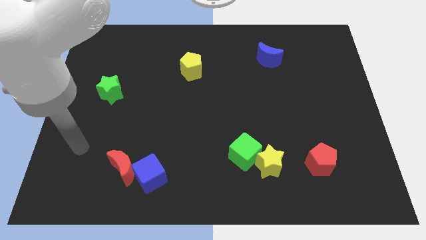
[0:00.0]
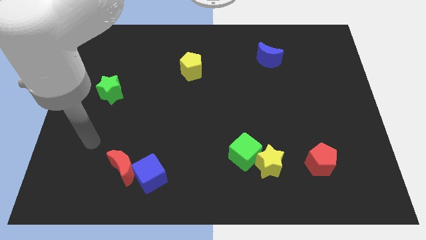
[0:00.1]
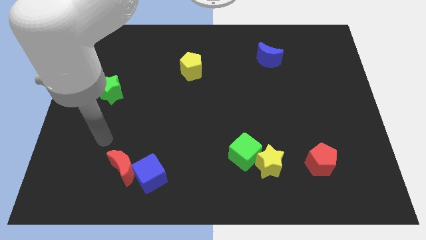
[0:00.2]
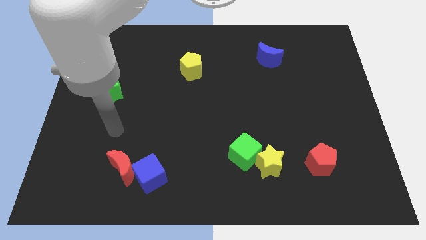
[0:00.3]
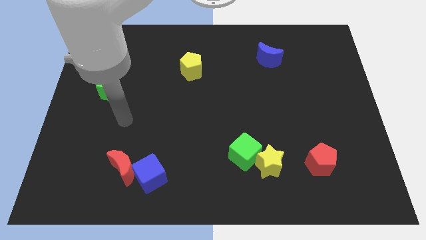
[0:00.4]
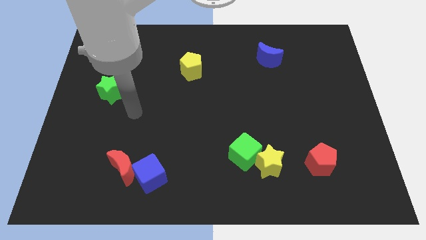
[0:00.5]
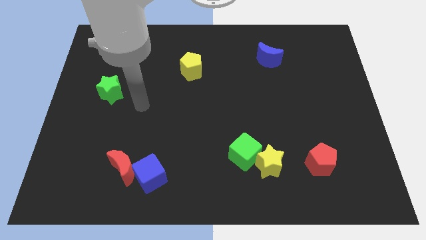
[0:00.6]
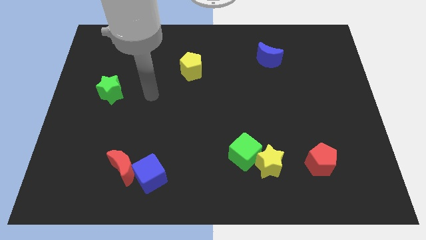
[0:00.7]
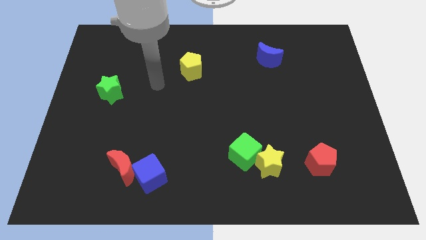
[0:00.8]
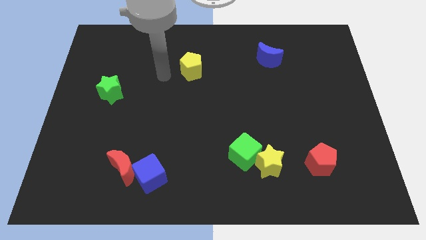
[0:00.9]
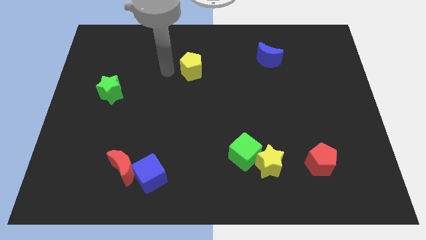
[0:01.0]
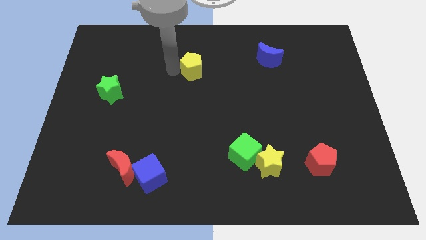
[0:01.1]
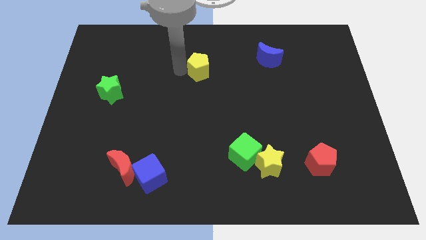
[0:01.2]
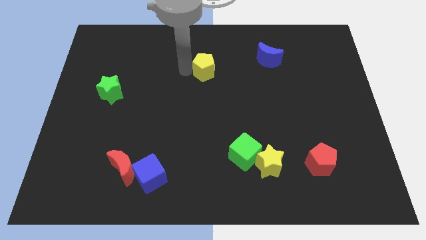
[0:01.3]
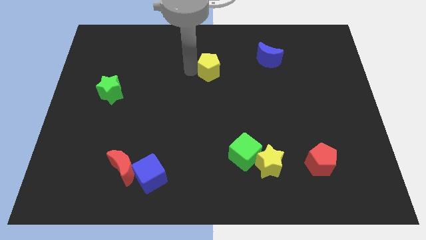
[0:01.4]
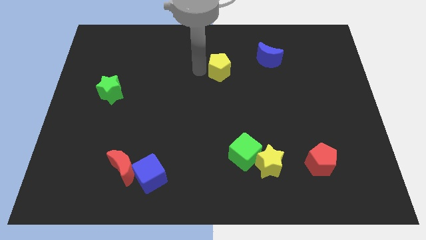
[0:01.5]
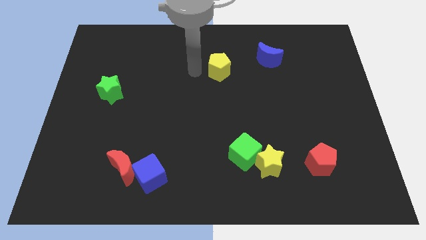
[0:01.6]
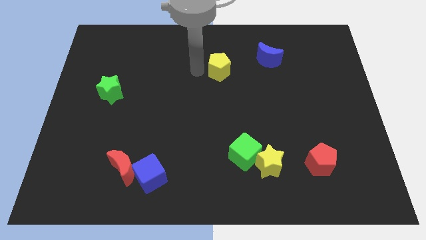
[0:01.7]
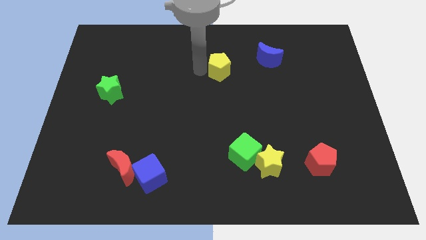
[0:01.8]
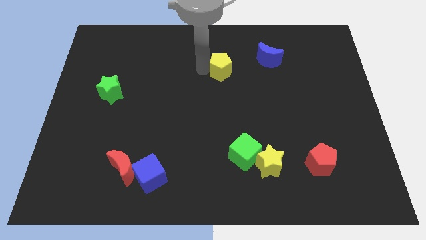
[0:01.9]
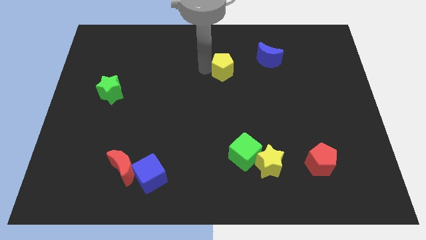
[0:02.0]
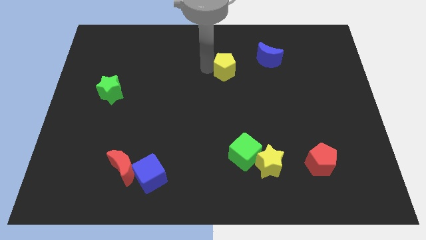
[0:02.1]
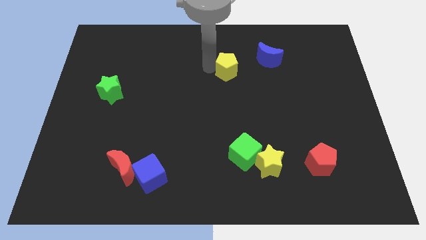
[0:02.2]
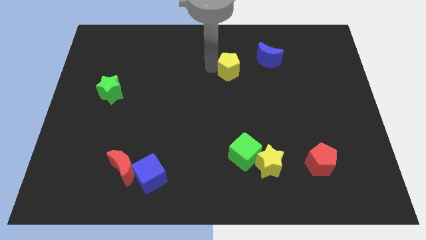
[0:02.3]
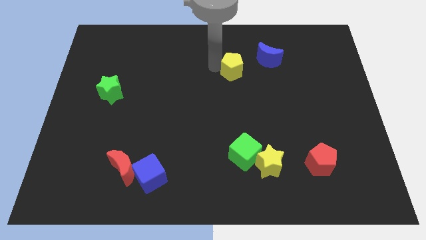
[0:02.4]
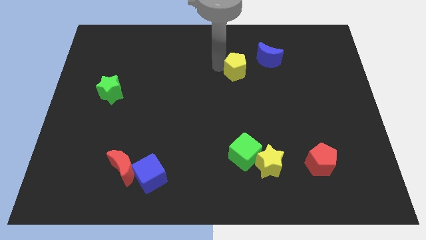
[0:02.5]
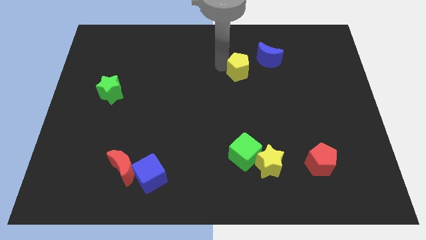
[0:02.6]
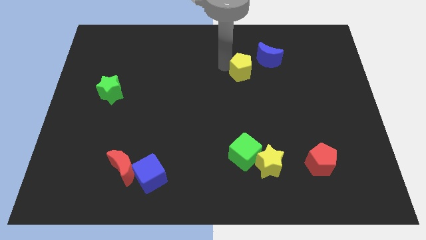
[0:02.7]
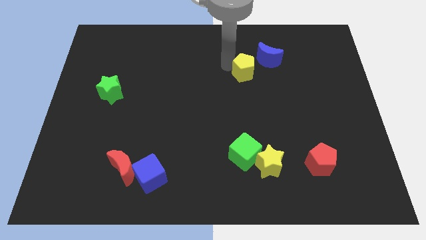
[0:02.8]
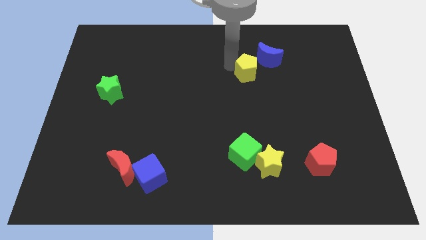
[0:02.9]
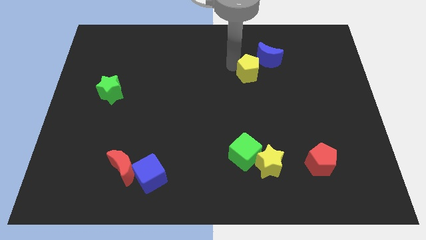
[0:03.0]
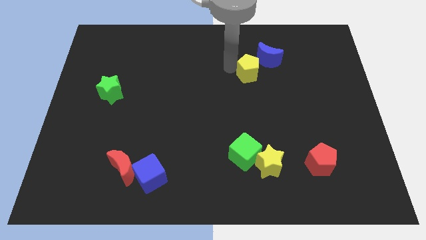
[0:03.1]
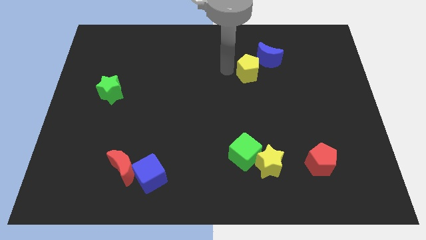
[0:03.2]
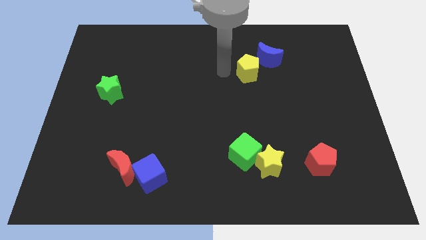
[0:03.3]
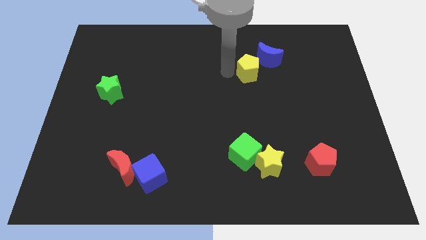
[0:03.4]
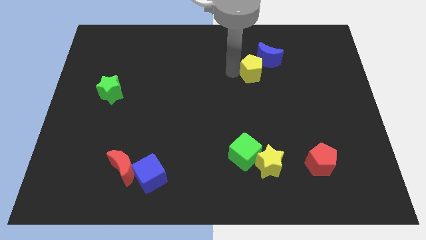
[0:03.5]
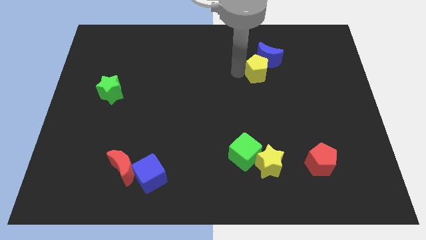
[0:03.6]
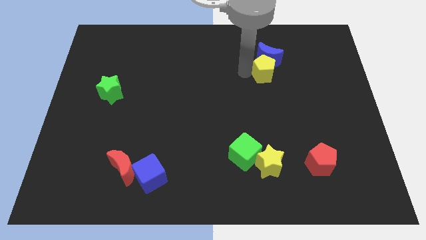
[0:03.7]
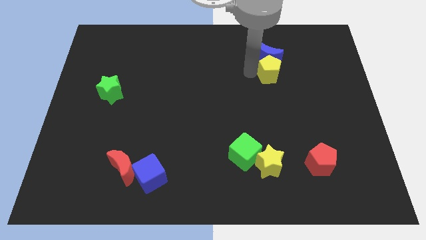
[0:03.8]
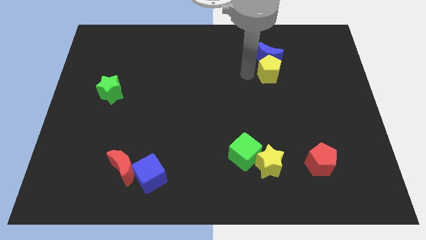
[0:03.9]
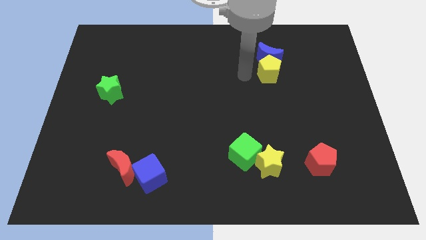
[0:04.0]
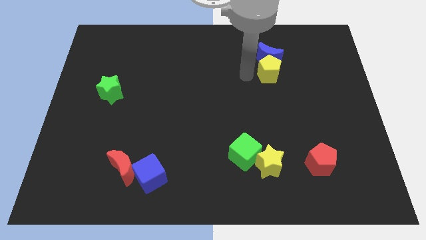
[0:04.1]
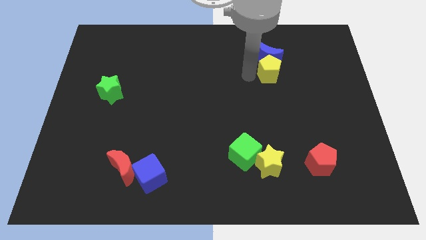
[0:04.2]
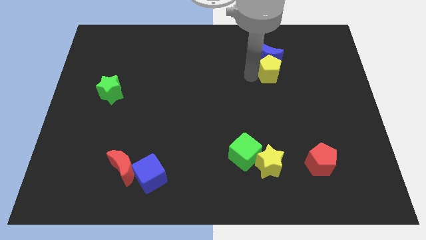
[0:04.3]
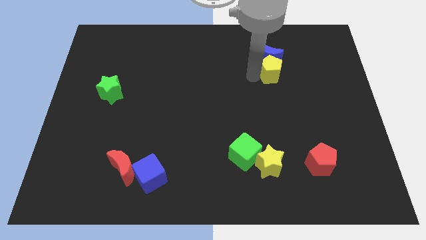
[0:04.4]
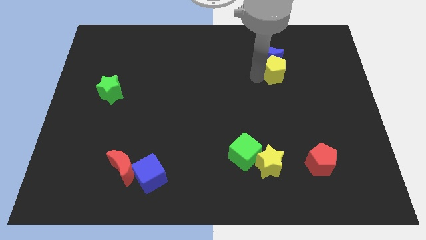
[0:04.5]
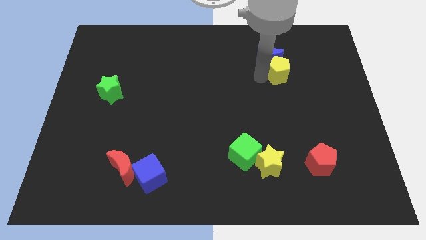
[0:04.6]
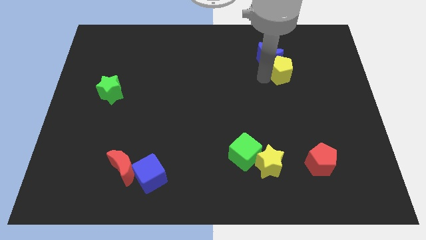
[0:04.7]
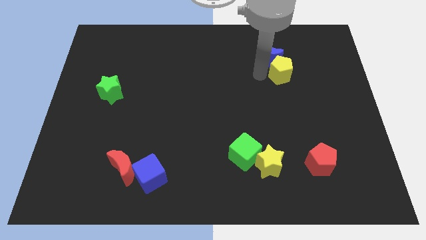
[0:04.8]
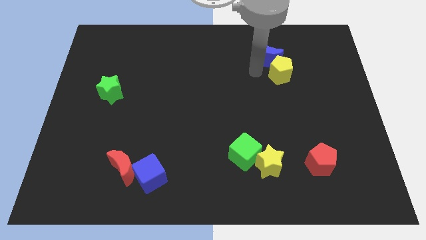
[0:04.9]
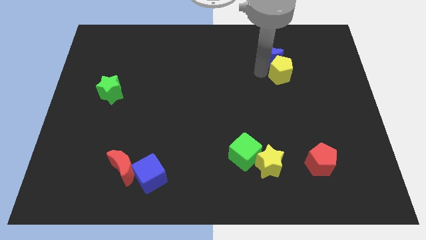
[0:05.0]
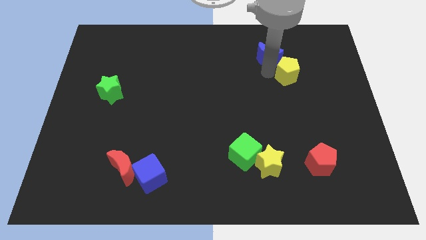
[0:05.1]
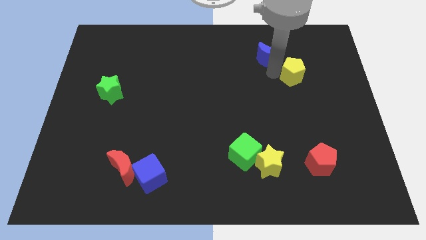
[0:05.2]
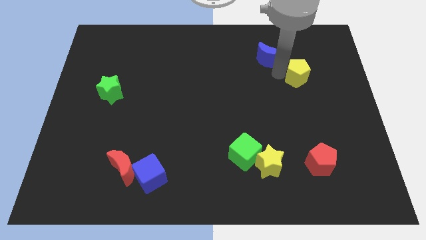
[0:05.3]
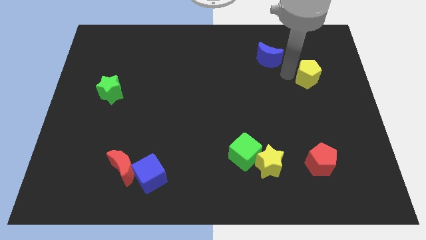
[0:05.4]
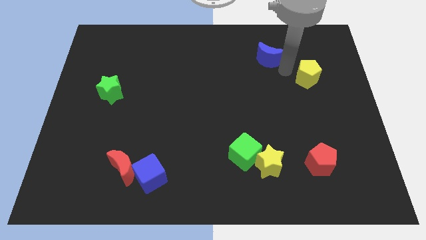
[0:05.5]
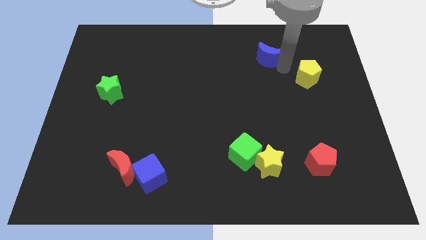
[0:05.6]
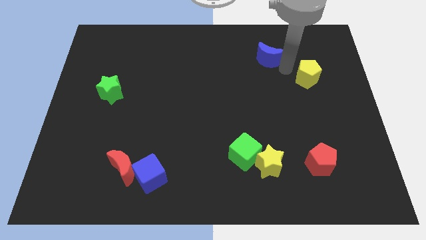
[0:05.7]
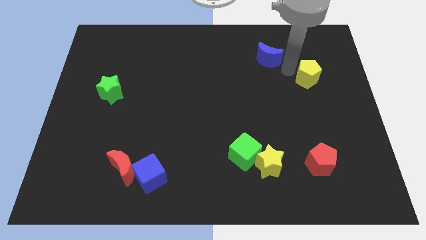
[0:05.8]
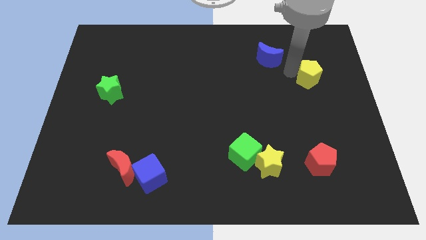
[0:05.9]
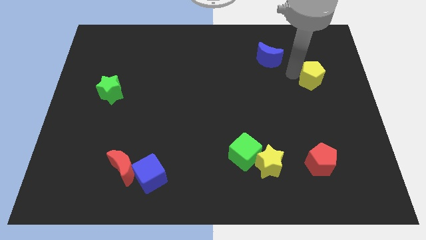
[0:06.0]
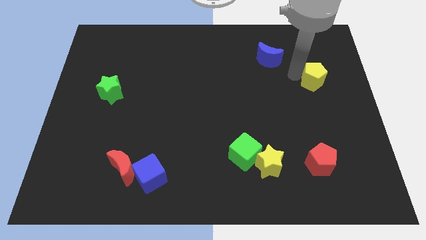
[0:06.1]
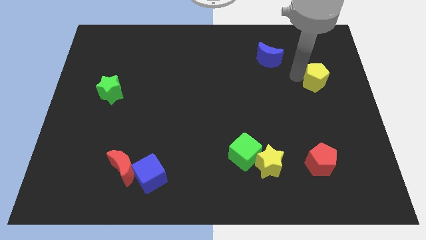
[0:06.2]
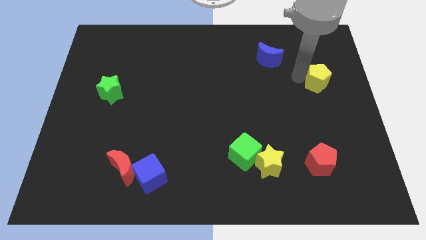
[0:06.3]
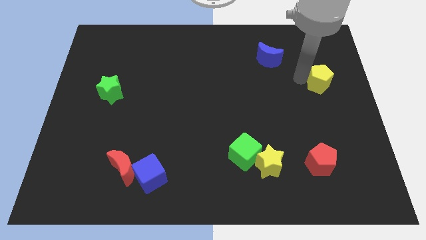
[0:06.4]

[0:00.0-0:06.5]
slide the yellow pentagon to the center right

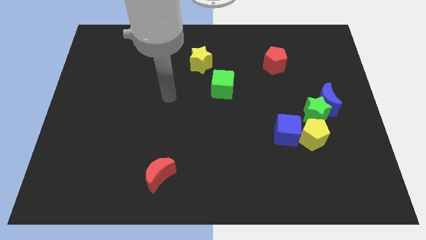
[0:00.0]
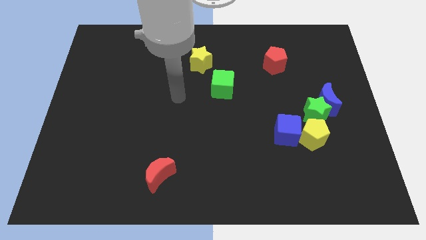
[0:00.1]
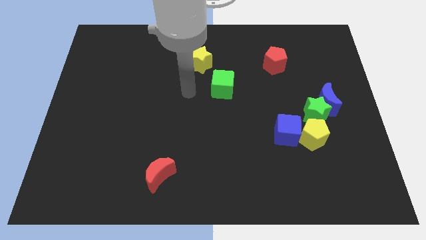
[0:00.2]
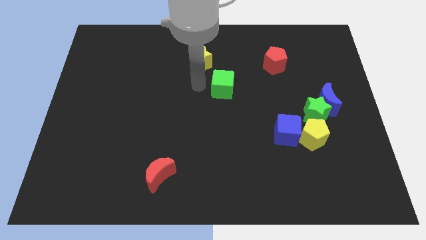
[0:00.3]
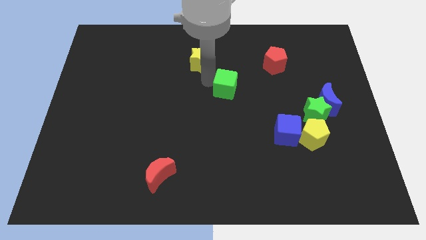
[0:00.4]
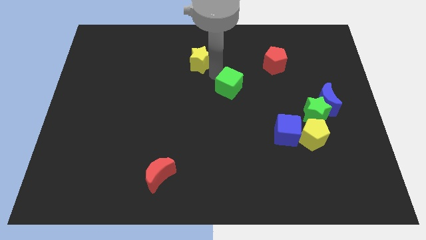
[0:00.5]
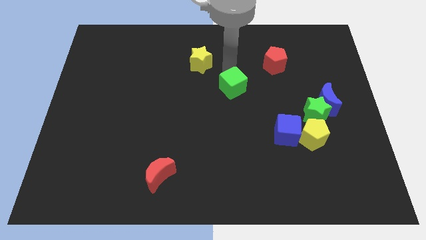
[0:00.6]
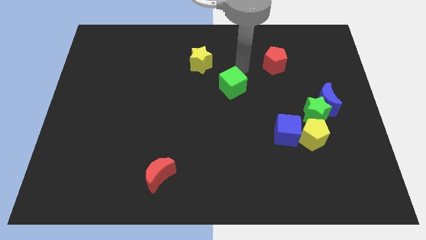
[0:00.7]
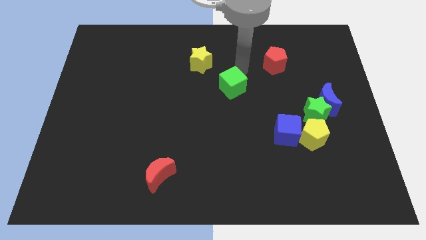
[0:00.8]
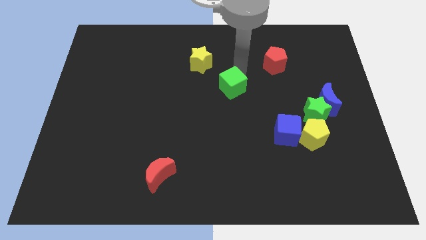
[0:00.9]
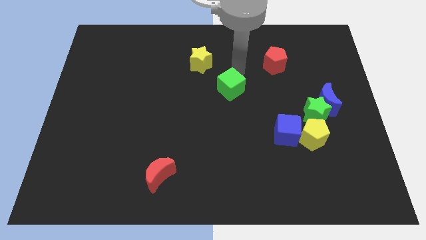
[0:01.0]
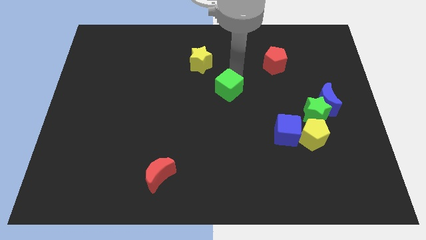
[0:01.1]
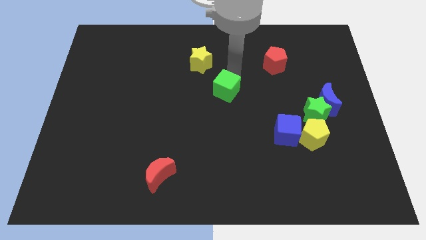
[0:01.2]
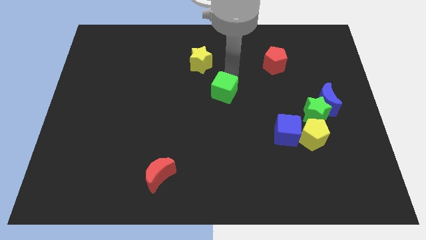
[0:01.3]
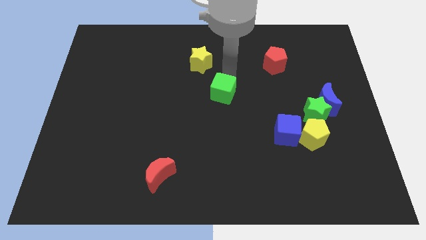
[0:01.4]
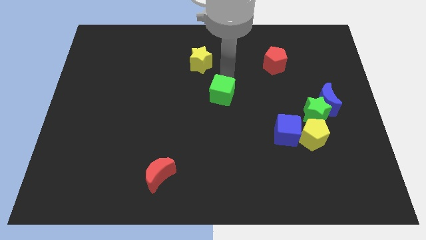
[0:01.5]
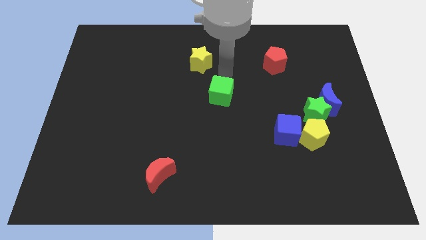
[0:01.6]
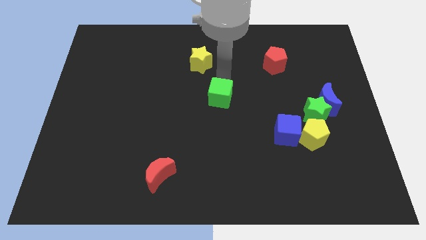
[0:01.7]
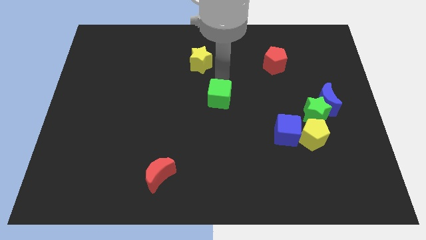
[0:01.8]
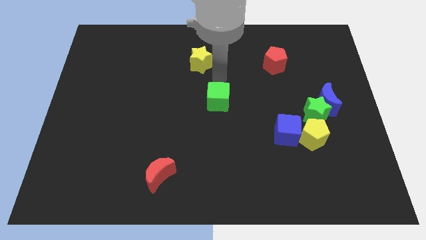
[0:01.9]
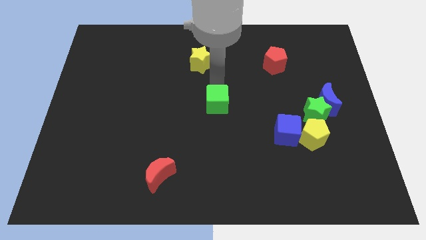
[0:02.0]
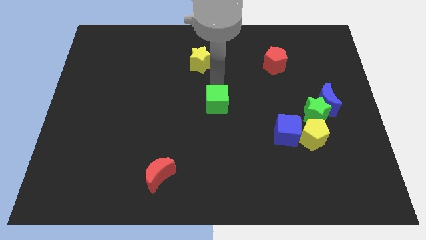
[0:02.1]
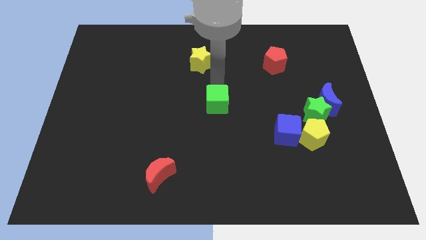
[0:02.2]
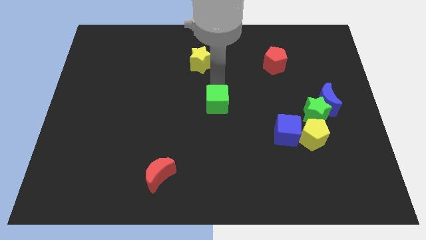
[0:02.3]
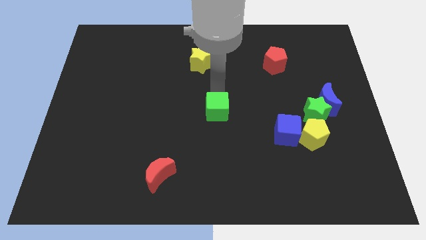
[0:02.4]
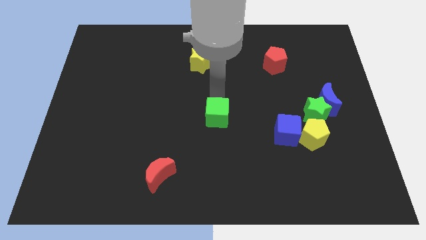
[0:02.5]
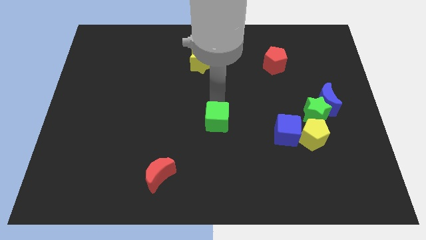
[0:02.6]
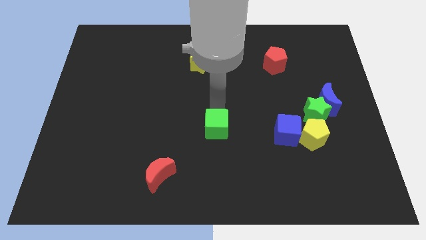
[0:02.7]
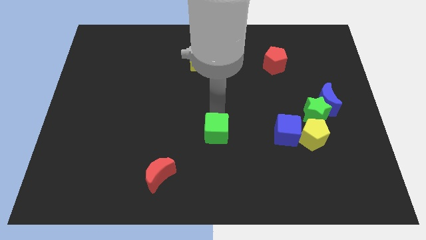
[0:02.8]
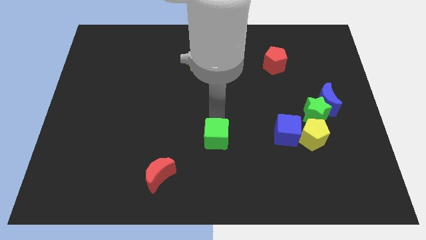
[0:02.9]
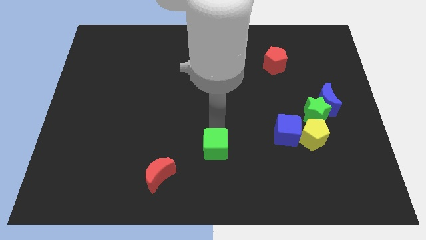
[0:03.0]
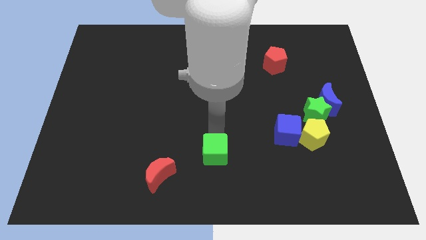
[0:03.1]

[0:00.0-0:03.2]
move the green cube to the bottom side
